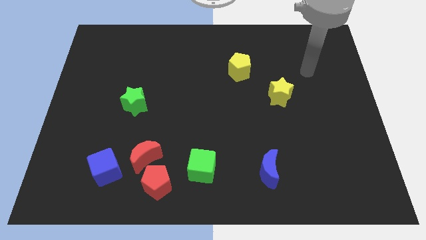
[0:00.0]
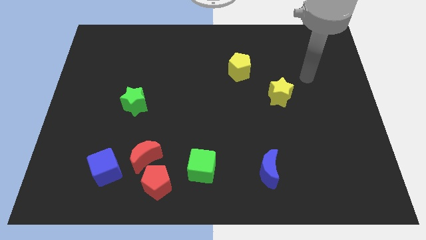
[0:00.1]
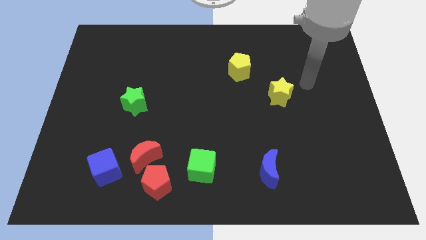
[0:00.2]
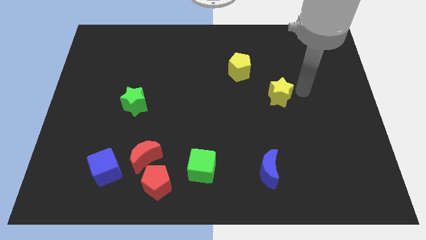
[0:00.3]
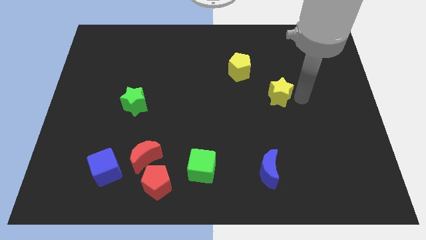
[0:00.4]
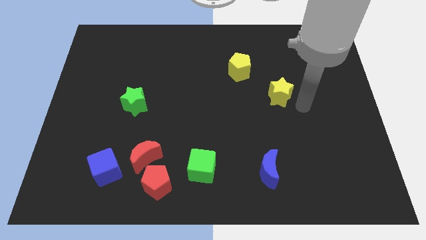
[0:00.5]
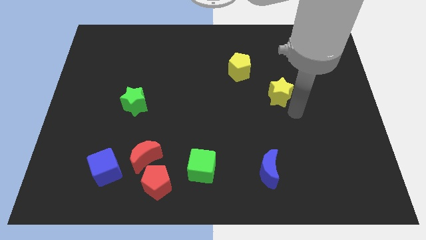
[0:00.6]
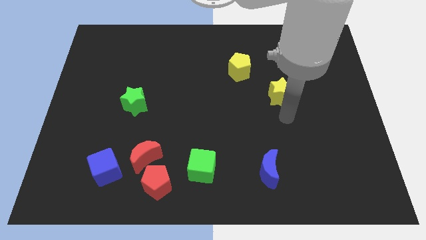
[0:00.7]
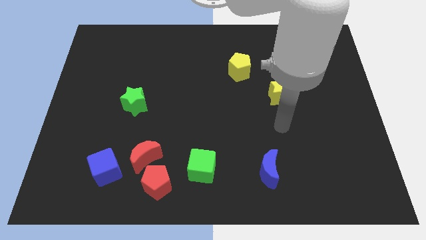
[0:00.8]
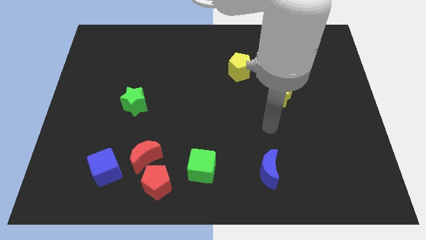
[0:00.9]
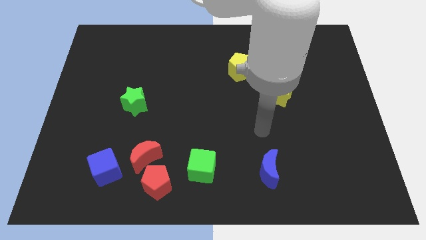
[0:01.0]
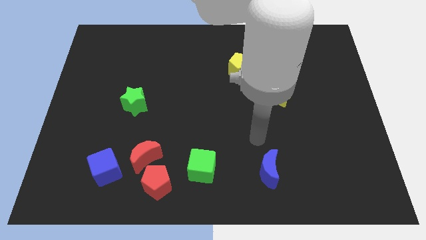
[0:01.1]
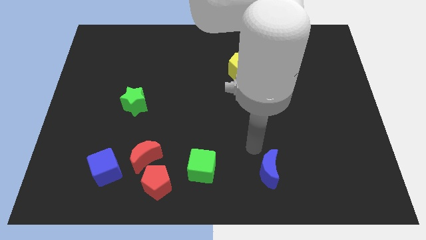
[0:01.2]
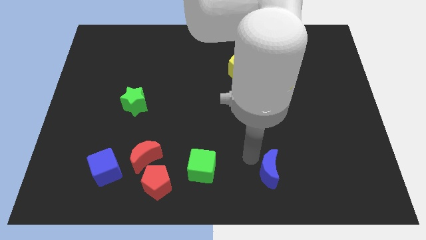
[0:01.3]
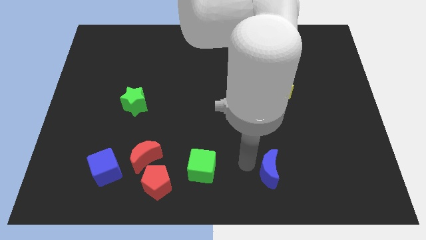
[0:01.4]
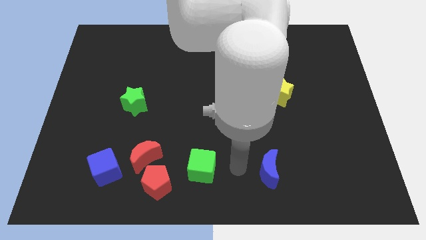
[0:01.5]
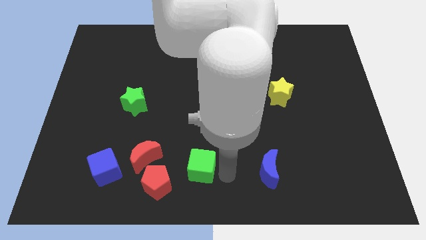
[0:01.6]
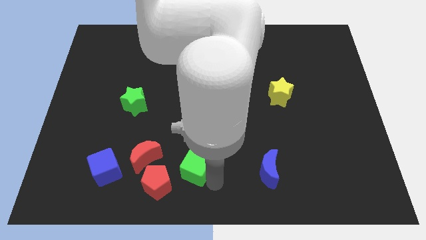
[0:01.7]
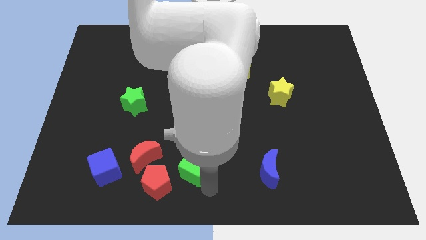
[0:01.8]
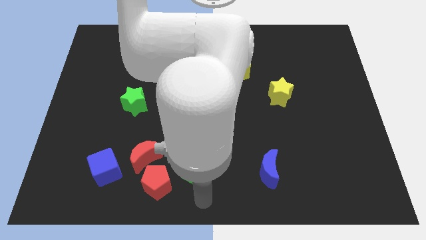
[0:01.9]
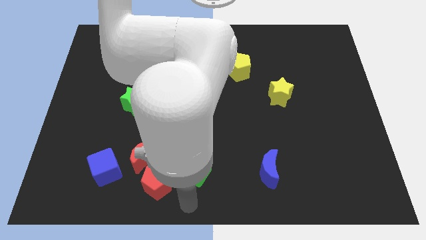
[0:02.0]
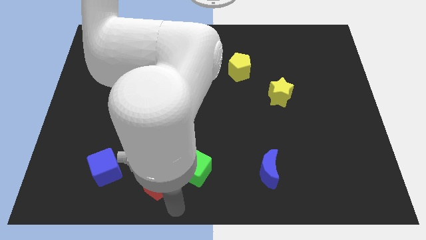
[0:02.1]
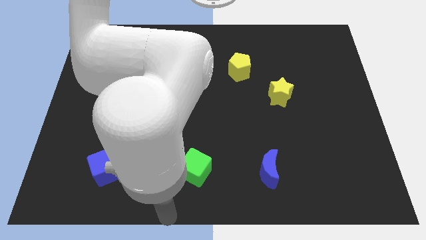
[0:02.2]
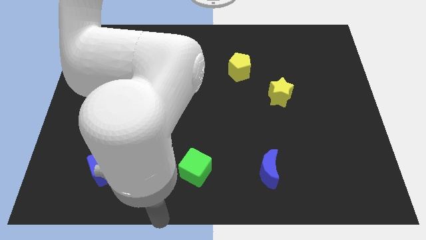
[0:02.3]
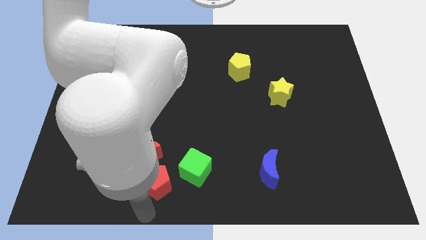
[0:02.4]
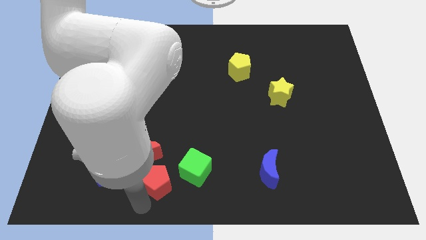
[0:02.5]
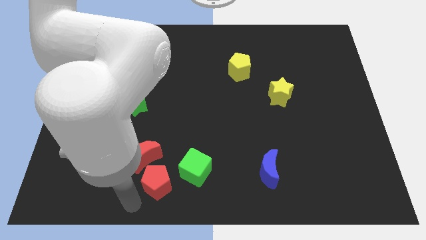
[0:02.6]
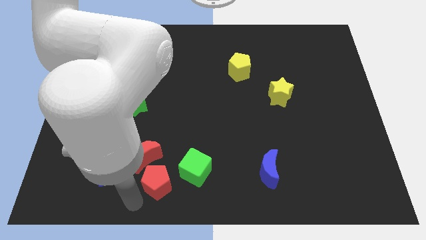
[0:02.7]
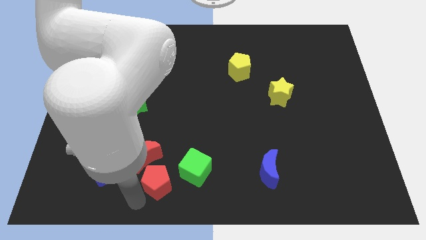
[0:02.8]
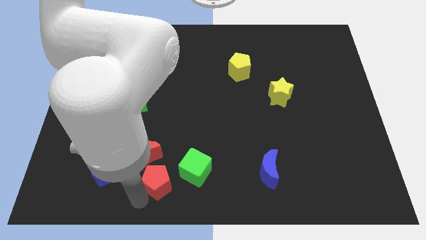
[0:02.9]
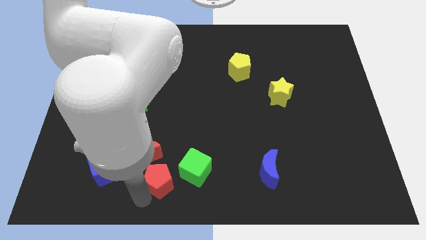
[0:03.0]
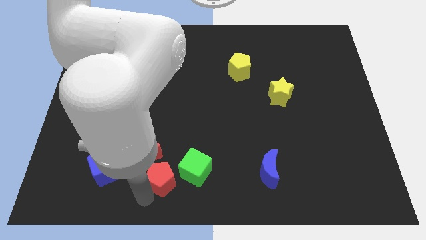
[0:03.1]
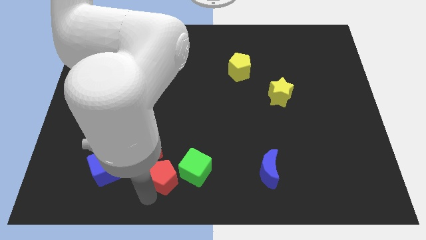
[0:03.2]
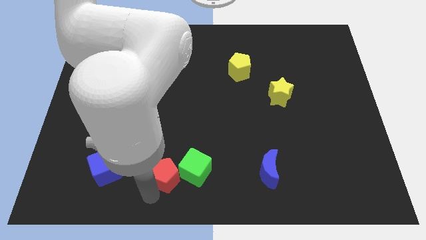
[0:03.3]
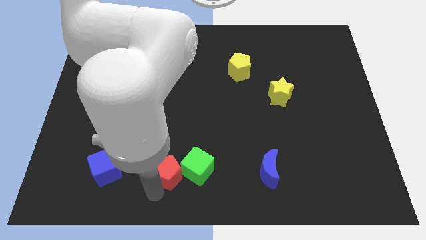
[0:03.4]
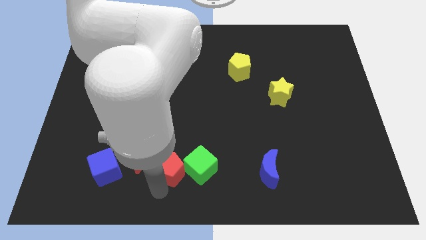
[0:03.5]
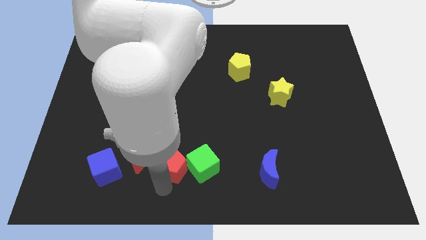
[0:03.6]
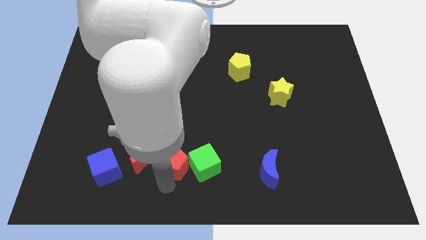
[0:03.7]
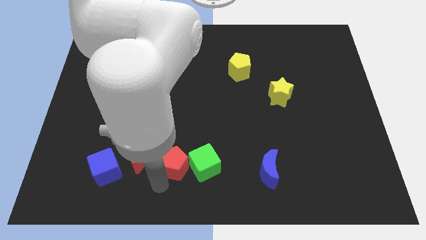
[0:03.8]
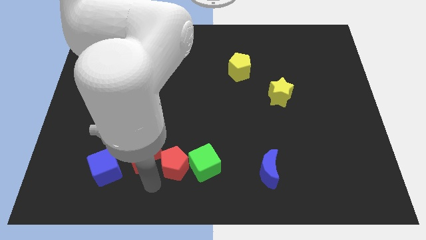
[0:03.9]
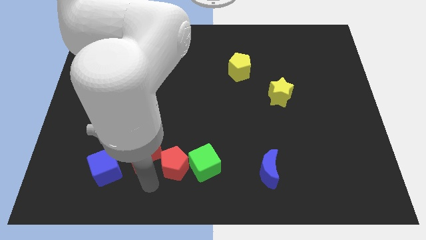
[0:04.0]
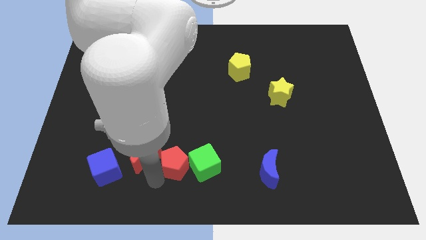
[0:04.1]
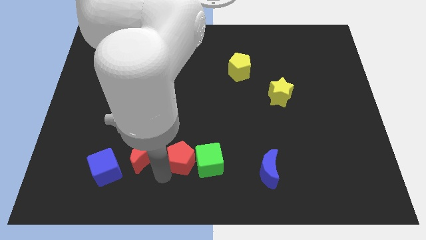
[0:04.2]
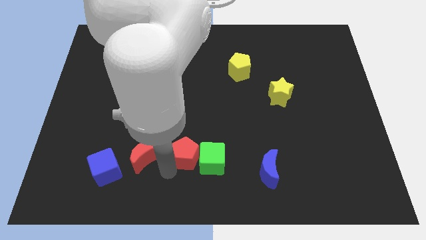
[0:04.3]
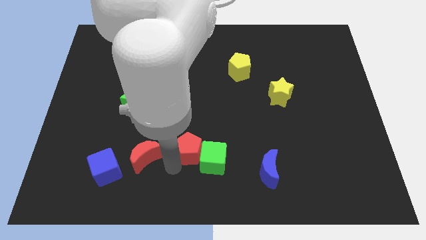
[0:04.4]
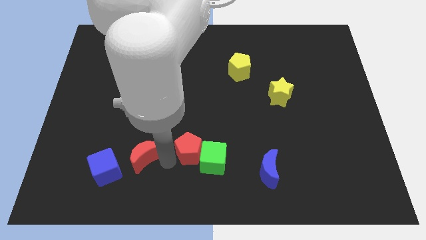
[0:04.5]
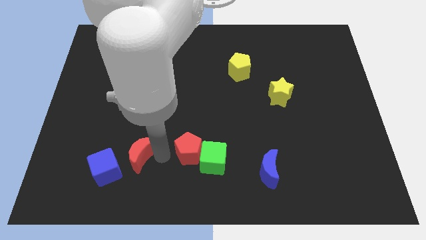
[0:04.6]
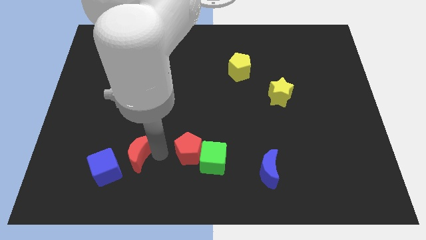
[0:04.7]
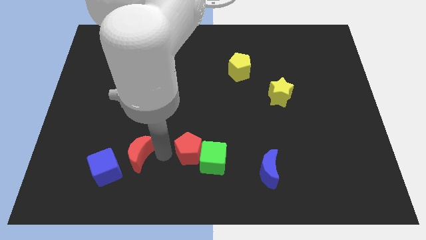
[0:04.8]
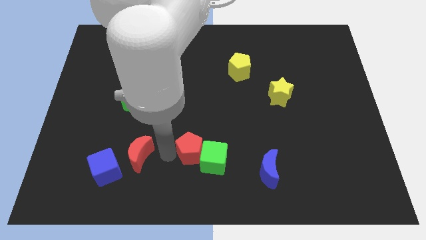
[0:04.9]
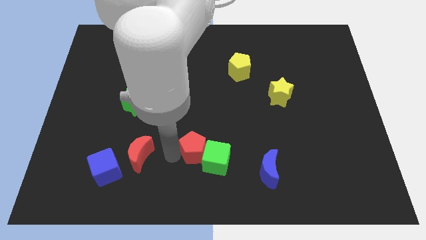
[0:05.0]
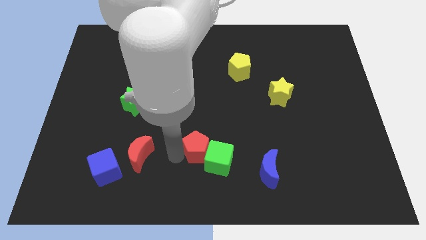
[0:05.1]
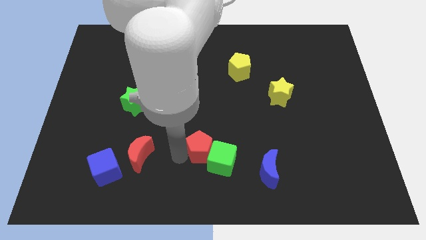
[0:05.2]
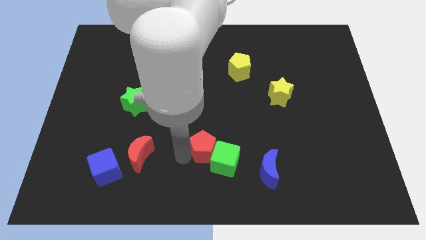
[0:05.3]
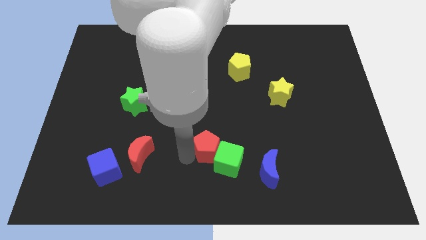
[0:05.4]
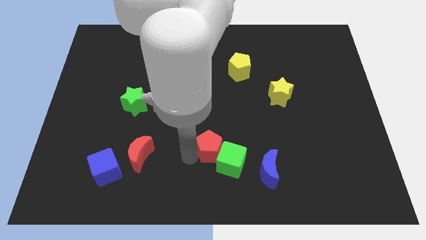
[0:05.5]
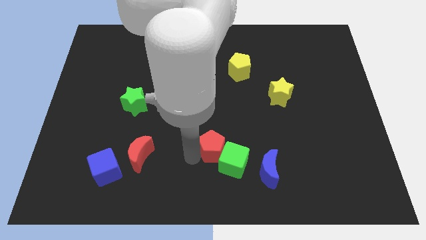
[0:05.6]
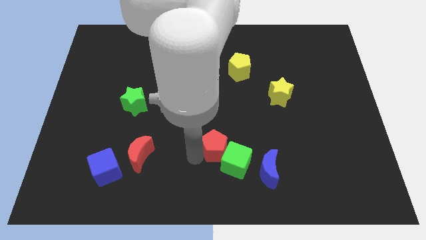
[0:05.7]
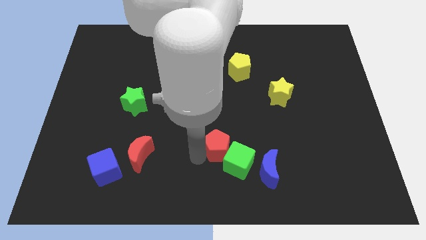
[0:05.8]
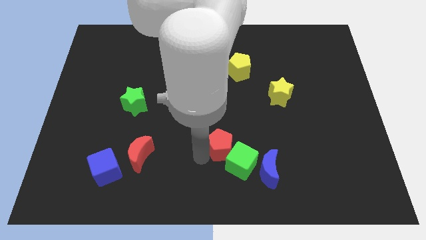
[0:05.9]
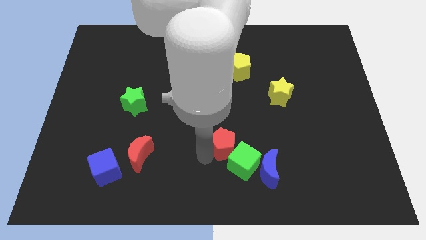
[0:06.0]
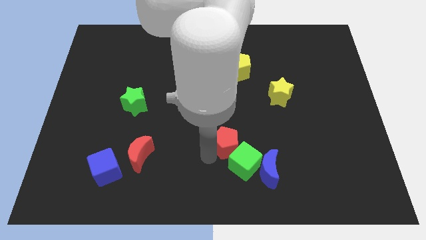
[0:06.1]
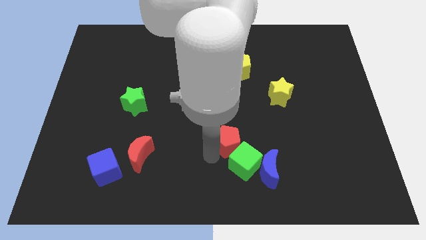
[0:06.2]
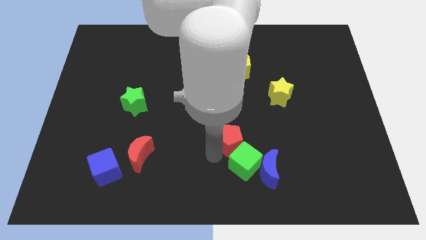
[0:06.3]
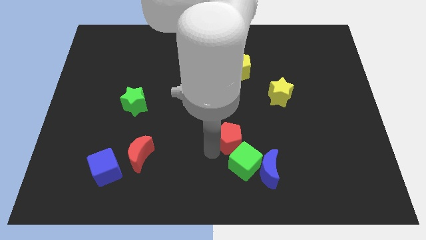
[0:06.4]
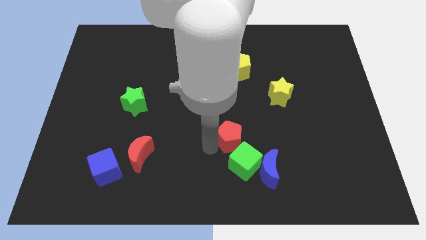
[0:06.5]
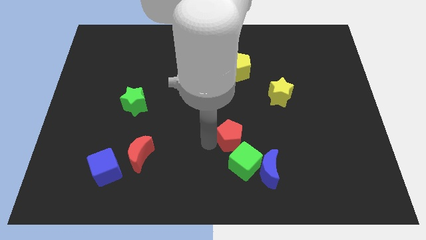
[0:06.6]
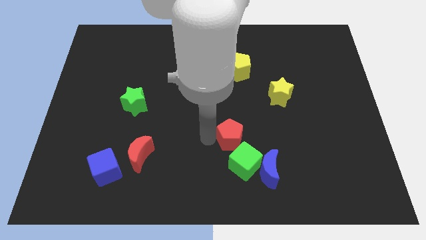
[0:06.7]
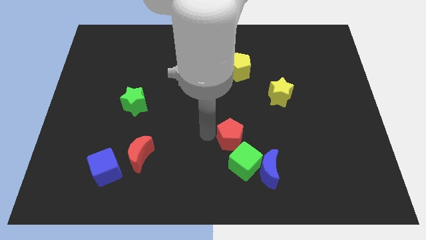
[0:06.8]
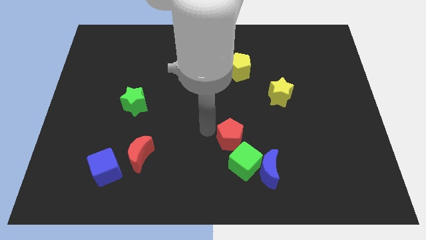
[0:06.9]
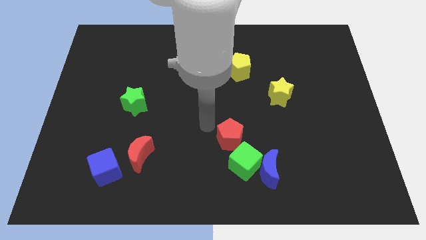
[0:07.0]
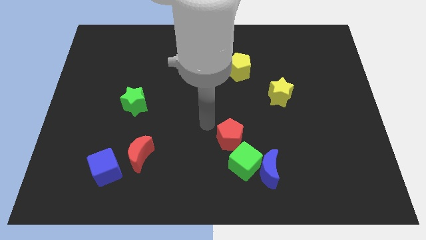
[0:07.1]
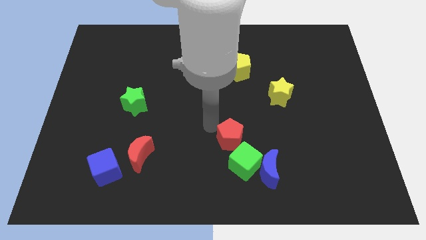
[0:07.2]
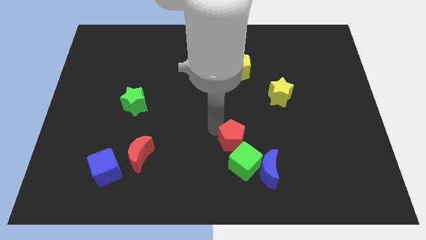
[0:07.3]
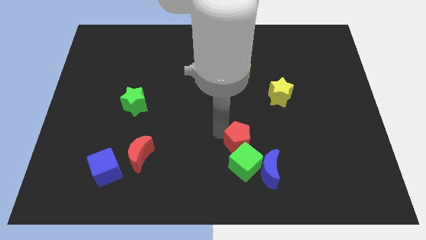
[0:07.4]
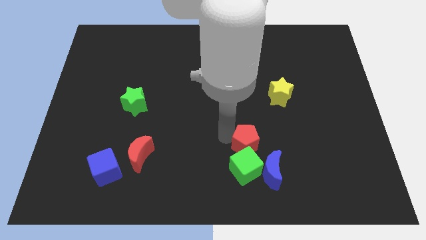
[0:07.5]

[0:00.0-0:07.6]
push the red pentagon above the blue moon
